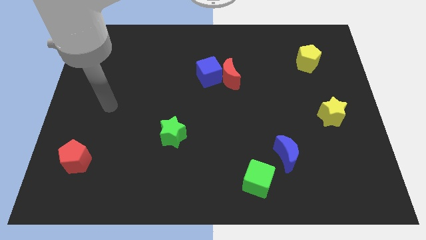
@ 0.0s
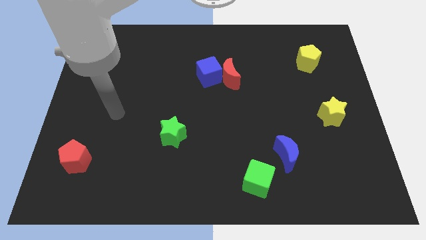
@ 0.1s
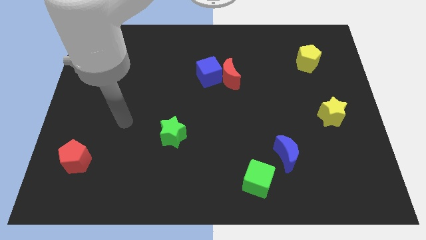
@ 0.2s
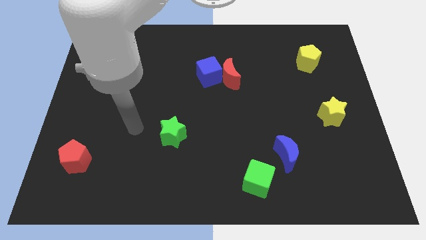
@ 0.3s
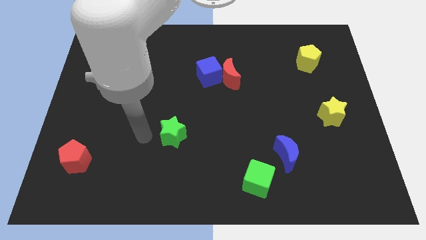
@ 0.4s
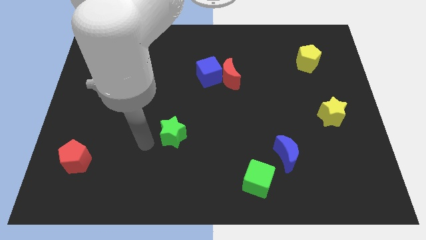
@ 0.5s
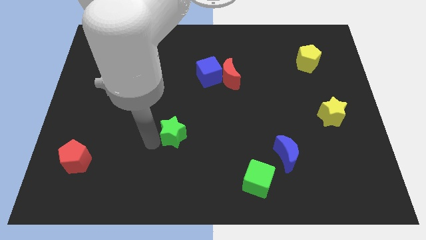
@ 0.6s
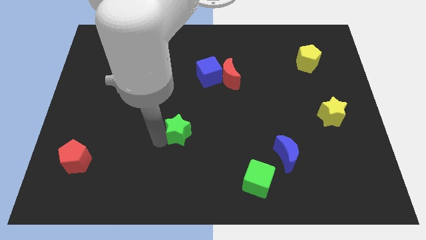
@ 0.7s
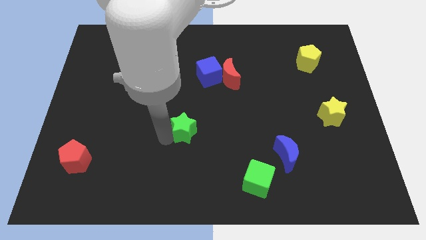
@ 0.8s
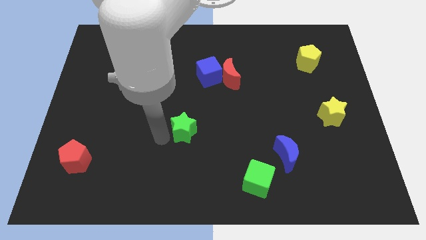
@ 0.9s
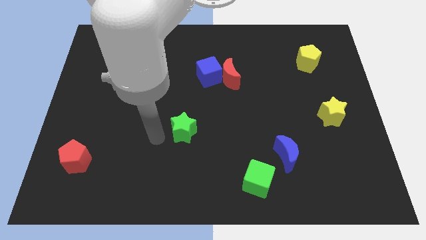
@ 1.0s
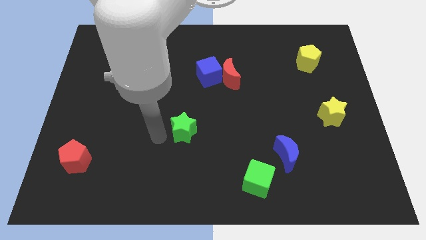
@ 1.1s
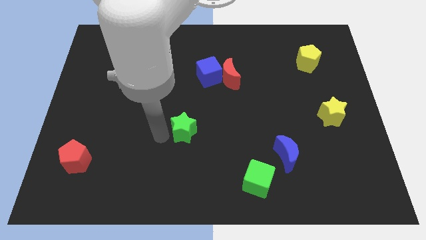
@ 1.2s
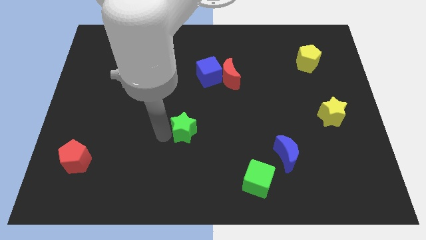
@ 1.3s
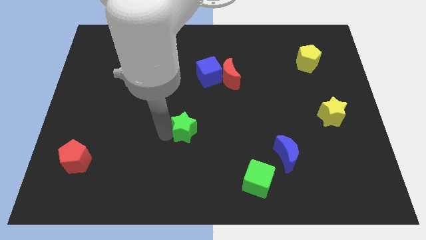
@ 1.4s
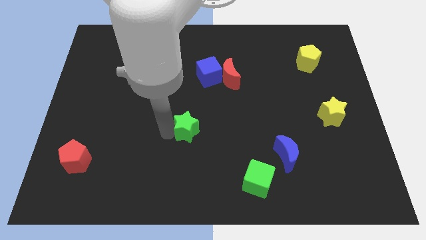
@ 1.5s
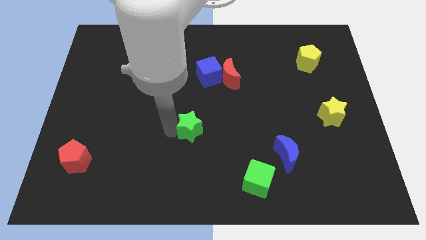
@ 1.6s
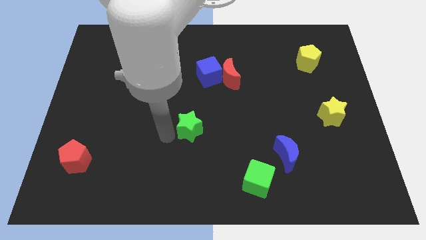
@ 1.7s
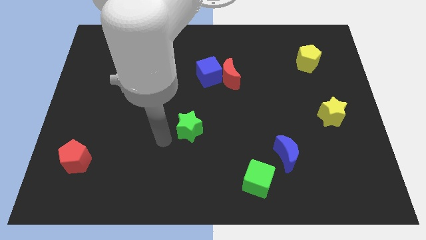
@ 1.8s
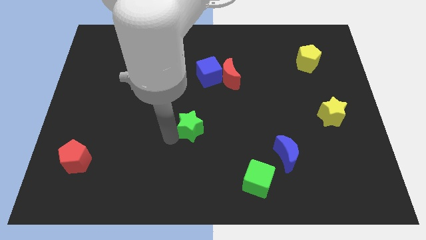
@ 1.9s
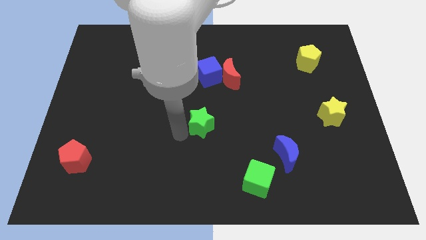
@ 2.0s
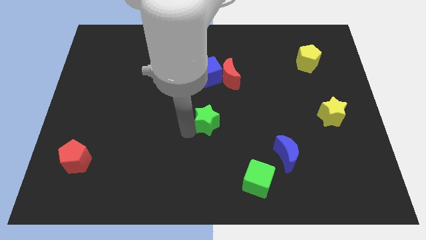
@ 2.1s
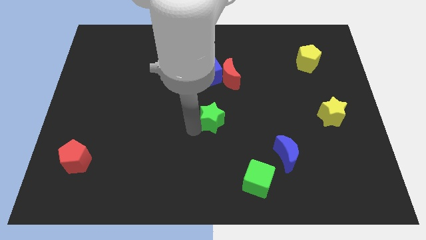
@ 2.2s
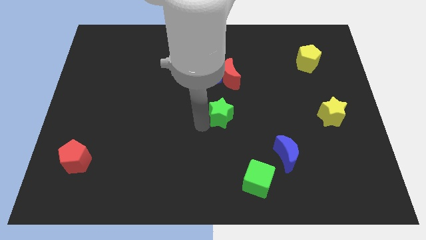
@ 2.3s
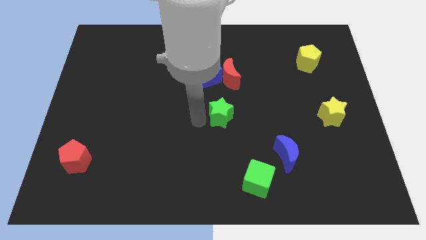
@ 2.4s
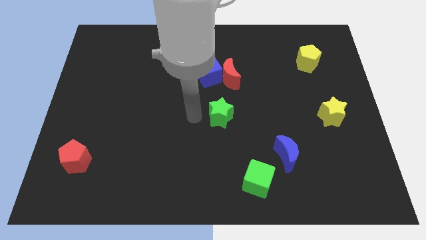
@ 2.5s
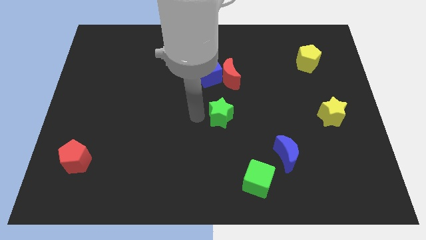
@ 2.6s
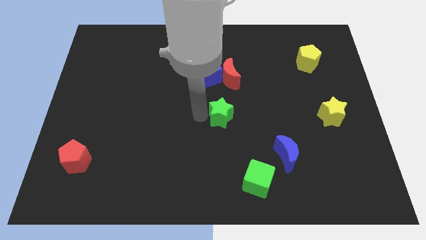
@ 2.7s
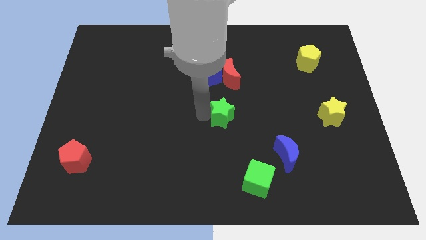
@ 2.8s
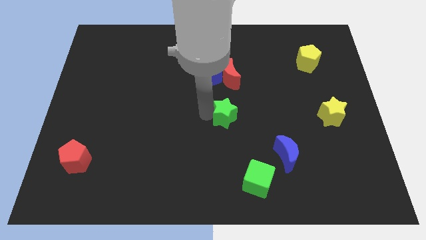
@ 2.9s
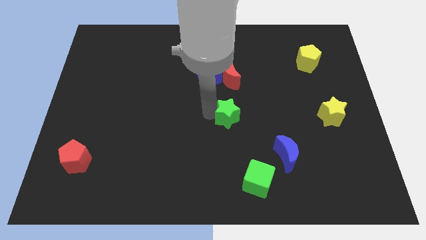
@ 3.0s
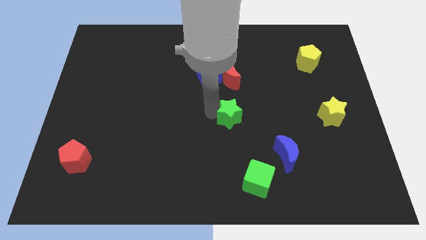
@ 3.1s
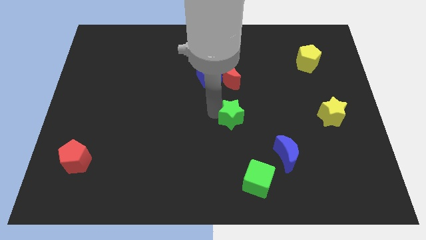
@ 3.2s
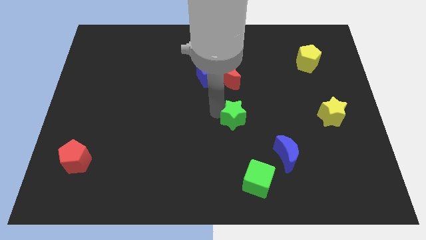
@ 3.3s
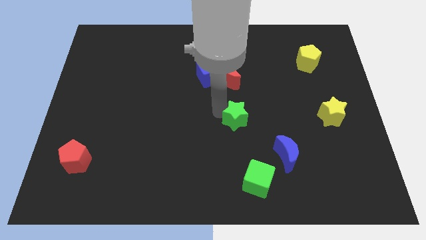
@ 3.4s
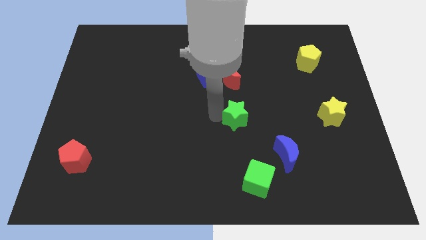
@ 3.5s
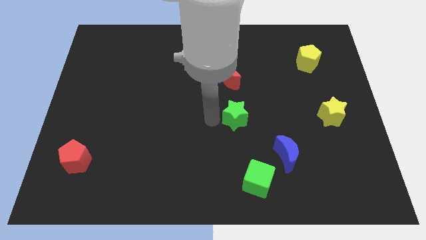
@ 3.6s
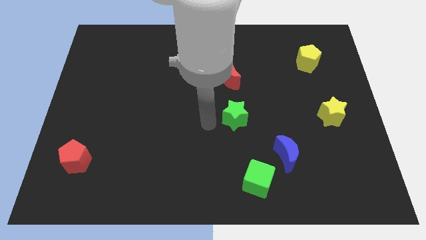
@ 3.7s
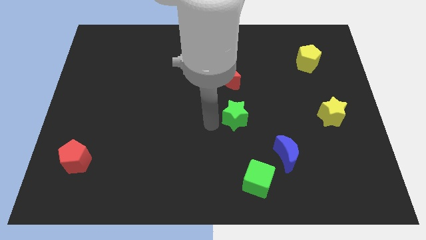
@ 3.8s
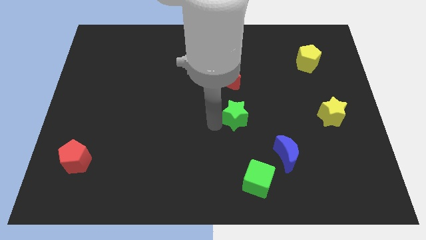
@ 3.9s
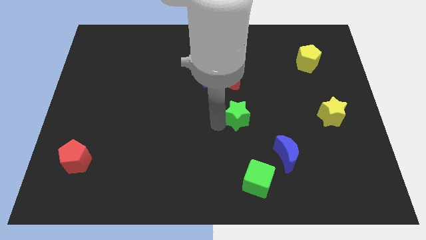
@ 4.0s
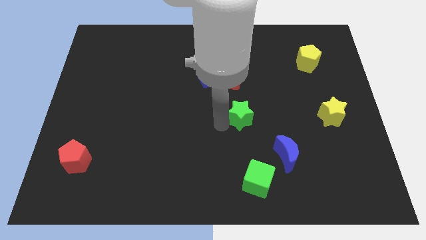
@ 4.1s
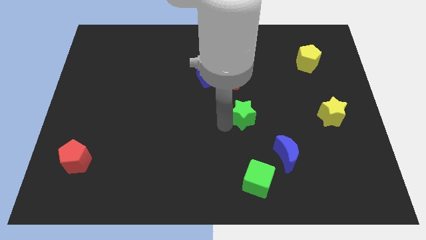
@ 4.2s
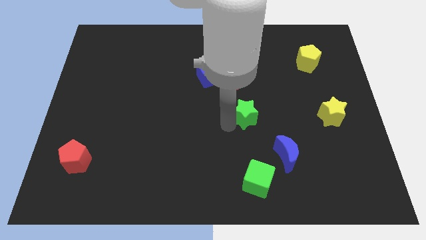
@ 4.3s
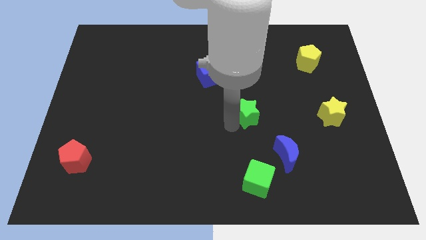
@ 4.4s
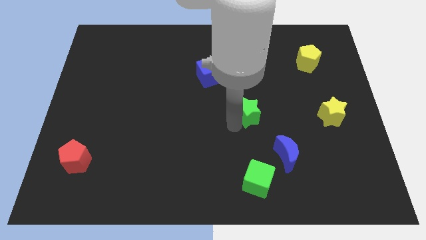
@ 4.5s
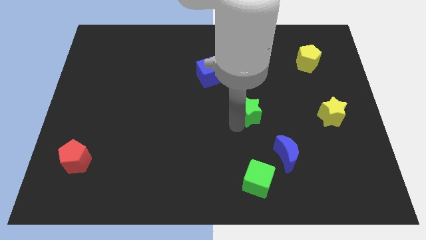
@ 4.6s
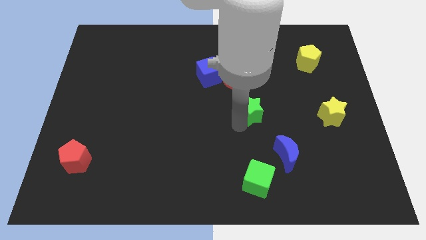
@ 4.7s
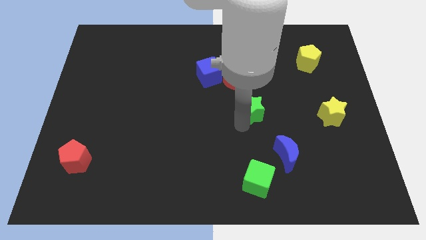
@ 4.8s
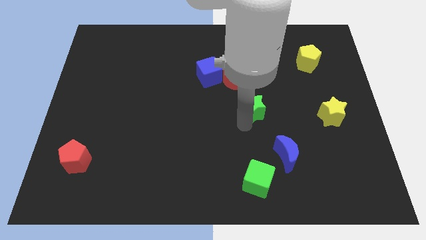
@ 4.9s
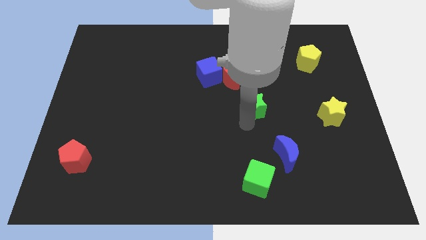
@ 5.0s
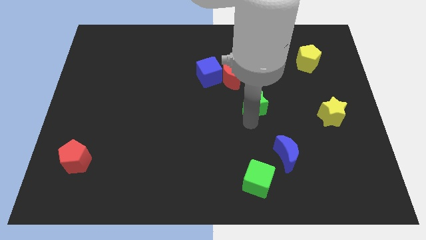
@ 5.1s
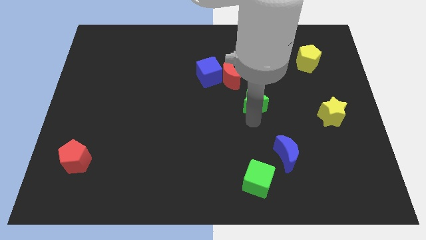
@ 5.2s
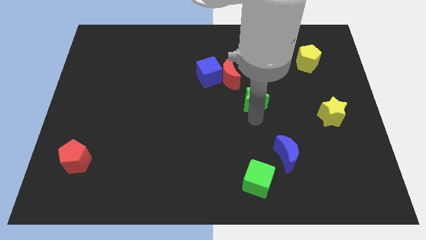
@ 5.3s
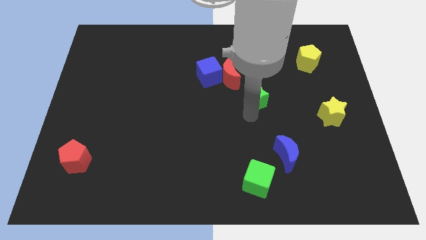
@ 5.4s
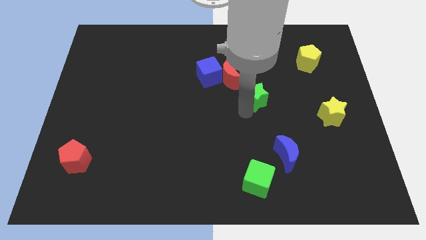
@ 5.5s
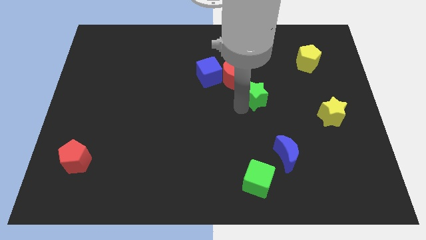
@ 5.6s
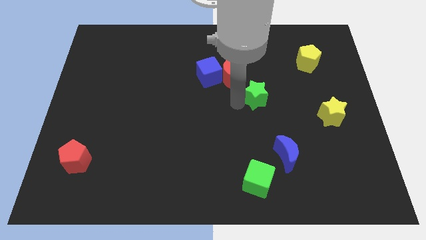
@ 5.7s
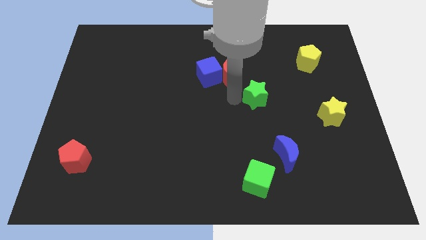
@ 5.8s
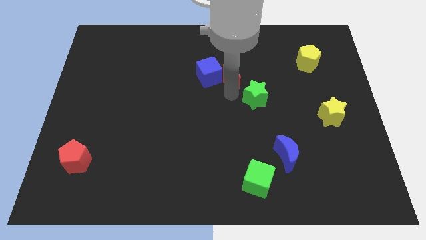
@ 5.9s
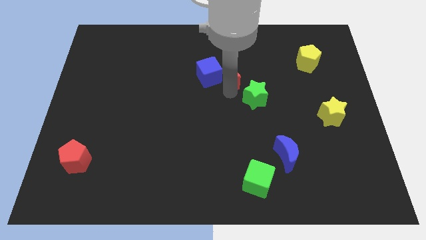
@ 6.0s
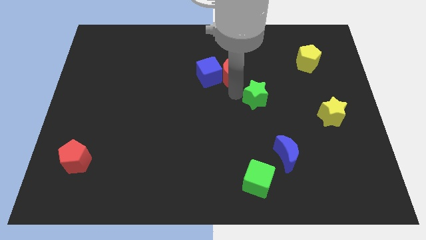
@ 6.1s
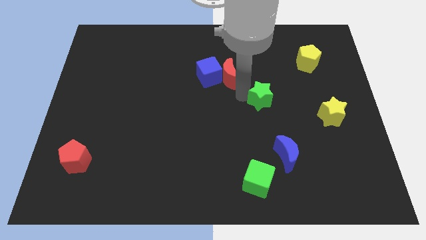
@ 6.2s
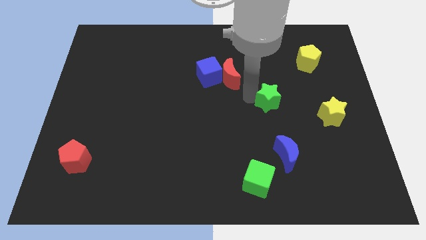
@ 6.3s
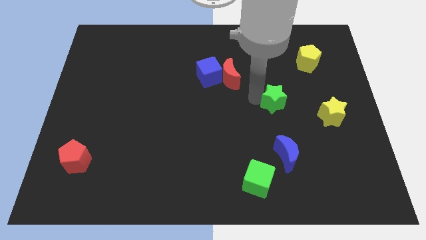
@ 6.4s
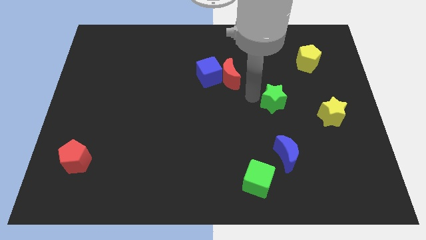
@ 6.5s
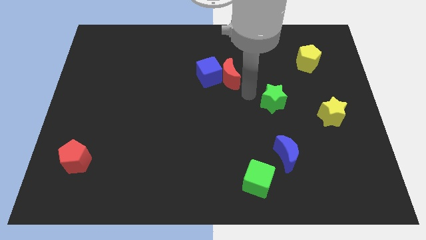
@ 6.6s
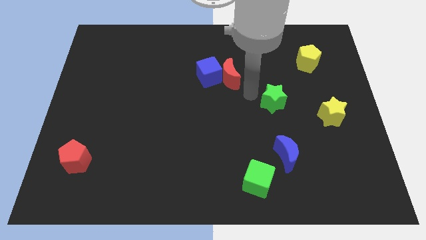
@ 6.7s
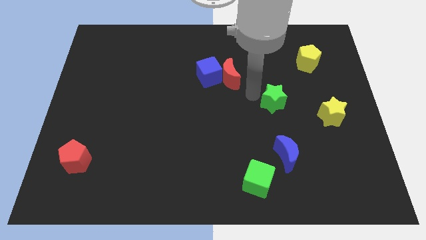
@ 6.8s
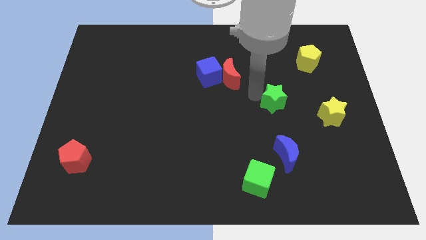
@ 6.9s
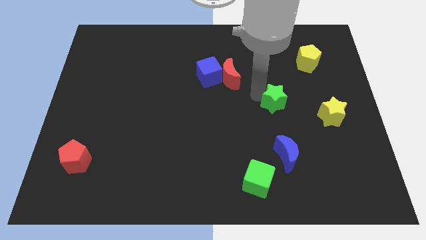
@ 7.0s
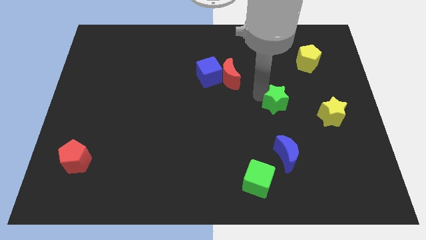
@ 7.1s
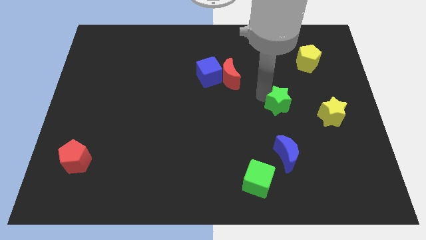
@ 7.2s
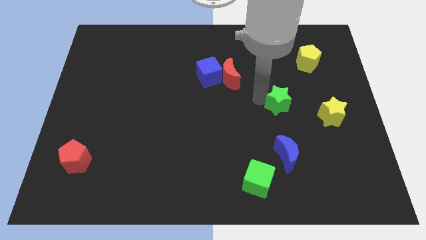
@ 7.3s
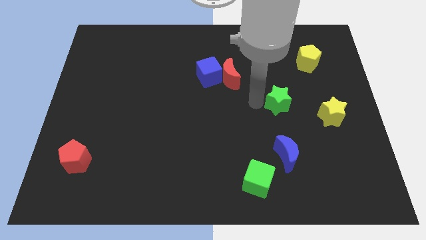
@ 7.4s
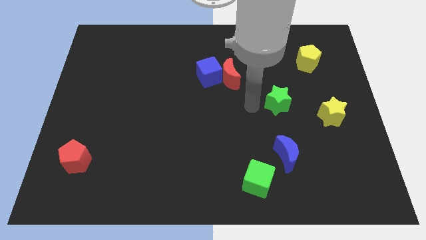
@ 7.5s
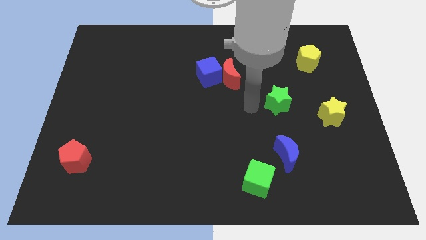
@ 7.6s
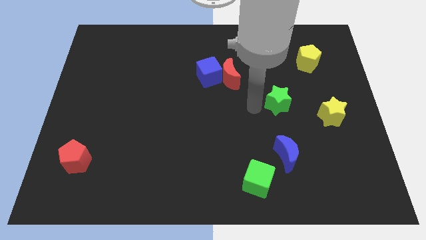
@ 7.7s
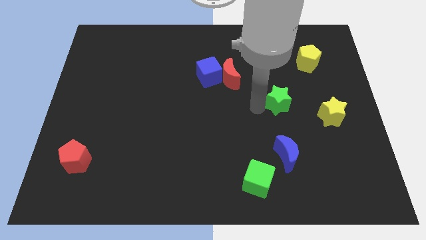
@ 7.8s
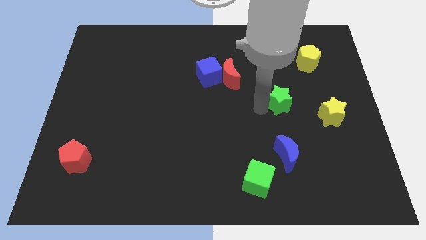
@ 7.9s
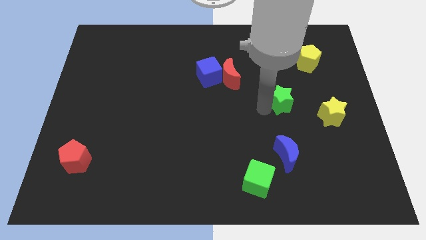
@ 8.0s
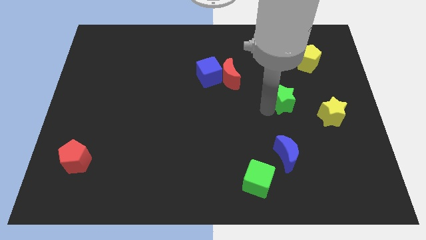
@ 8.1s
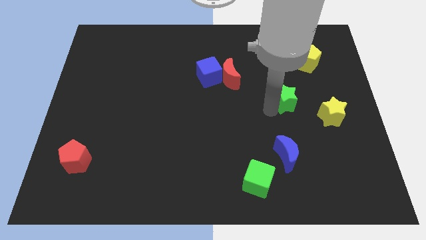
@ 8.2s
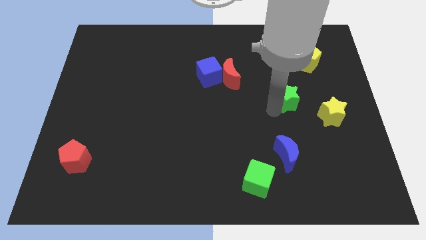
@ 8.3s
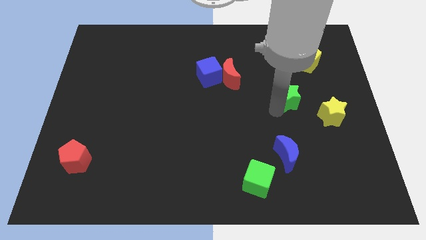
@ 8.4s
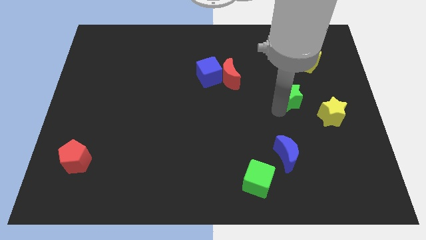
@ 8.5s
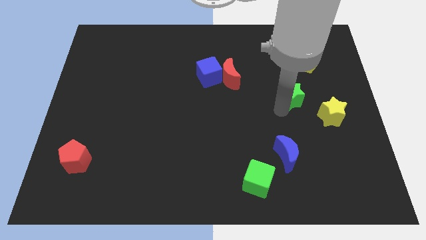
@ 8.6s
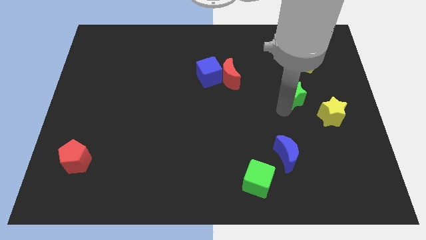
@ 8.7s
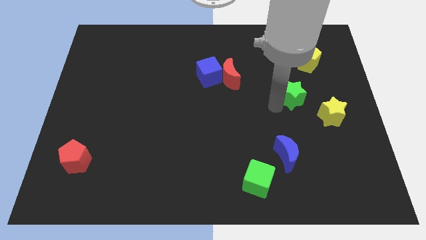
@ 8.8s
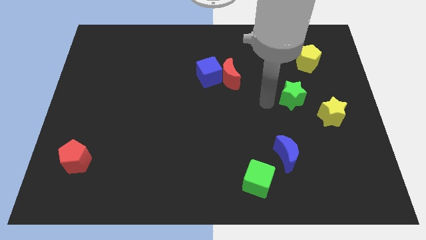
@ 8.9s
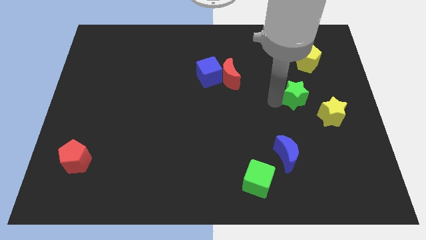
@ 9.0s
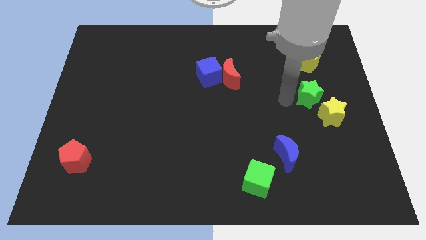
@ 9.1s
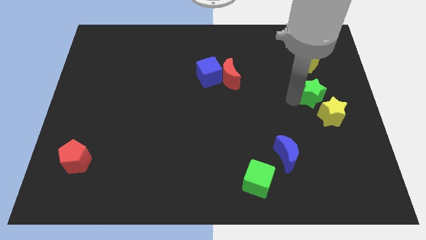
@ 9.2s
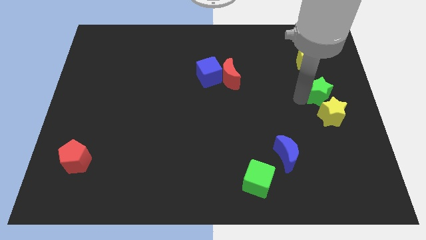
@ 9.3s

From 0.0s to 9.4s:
slide the green star to the center right
